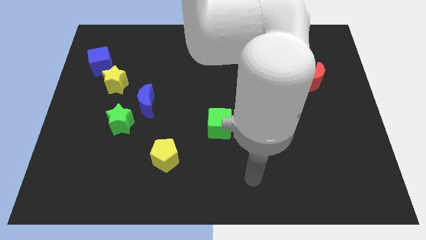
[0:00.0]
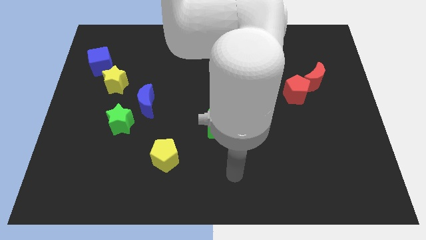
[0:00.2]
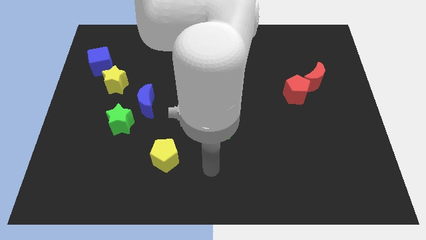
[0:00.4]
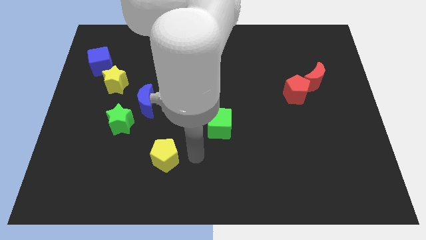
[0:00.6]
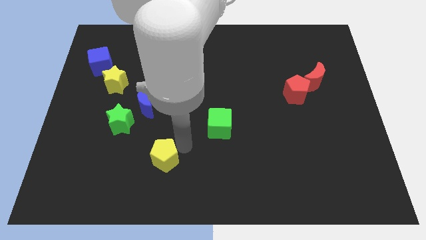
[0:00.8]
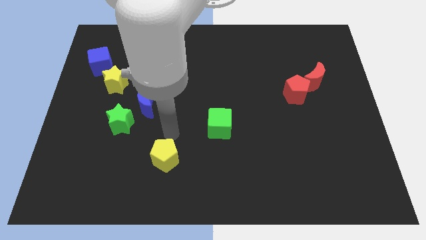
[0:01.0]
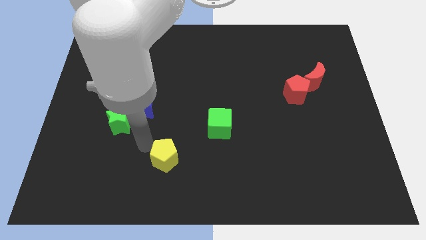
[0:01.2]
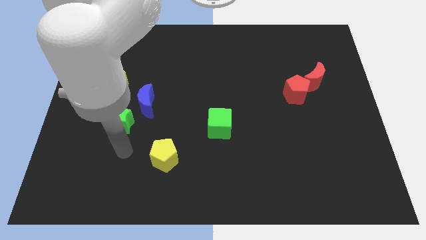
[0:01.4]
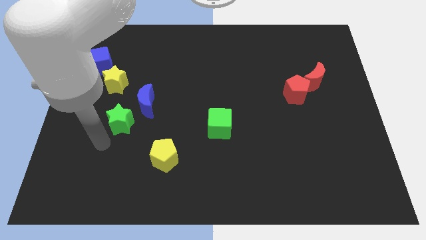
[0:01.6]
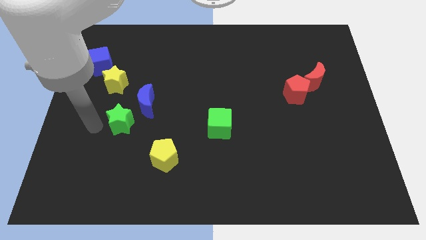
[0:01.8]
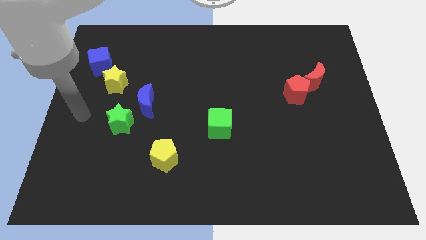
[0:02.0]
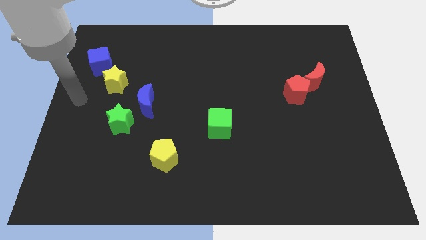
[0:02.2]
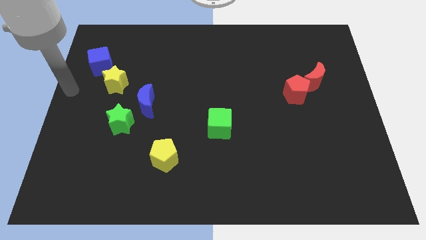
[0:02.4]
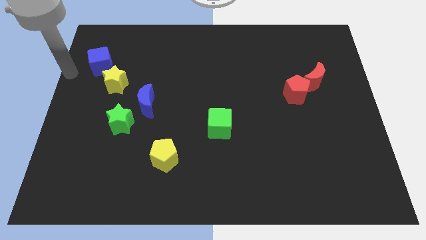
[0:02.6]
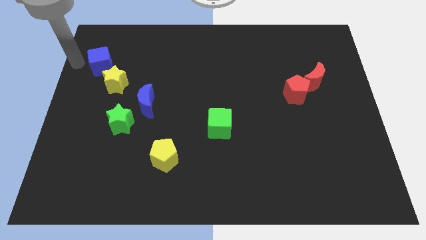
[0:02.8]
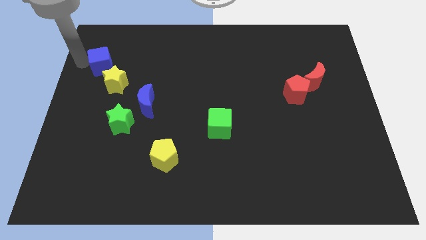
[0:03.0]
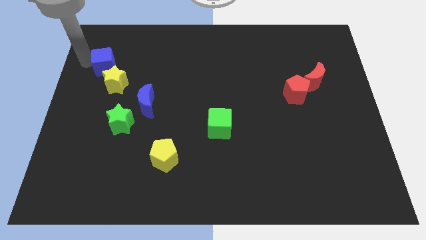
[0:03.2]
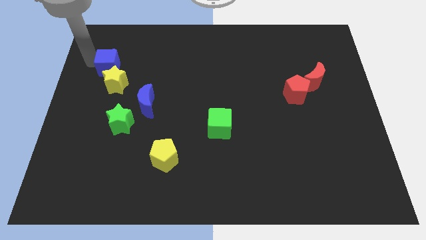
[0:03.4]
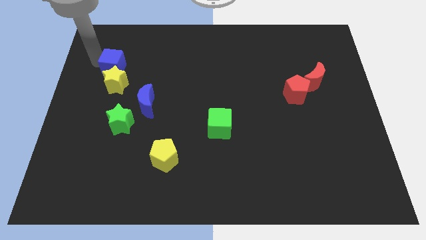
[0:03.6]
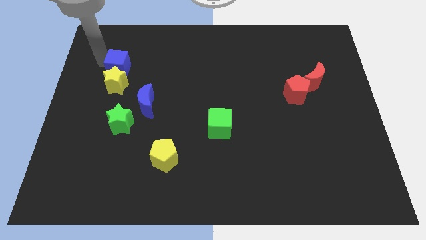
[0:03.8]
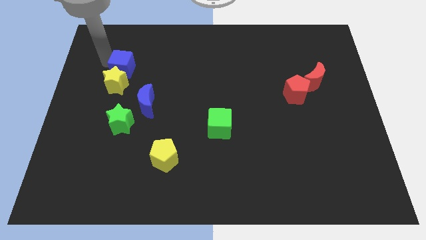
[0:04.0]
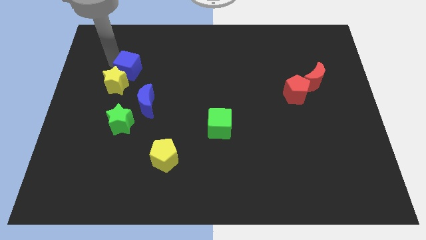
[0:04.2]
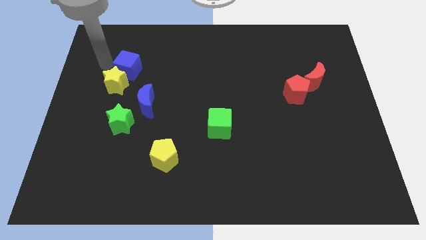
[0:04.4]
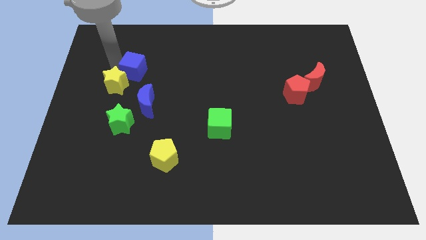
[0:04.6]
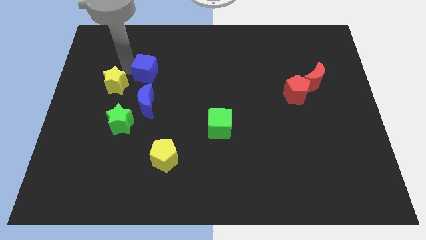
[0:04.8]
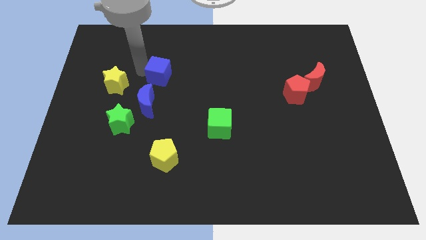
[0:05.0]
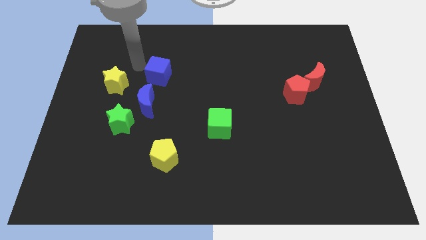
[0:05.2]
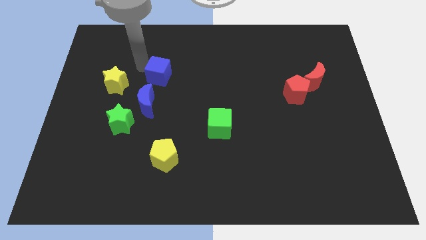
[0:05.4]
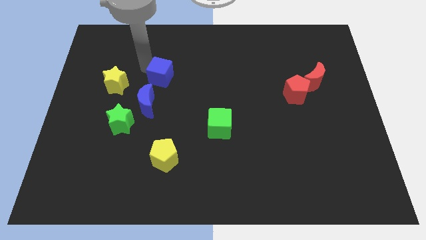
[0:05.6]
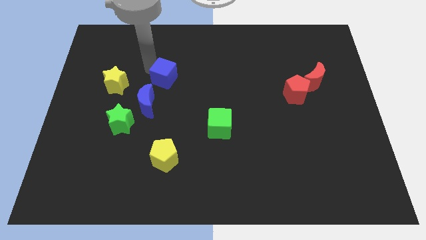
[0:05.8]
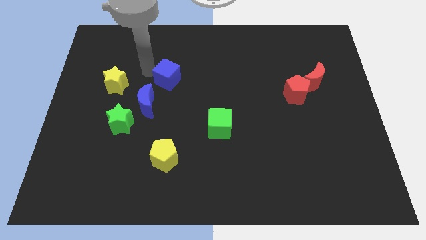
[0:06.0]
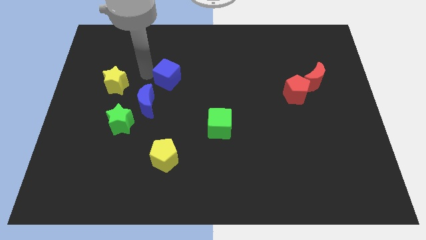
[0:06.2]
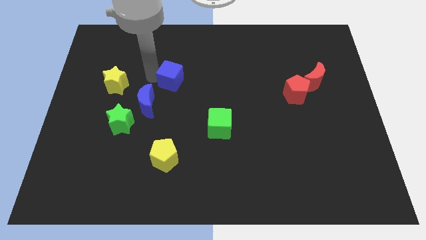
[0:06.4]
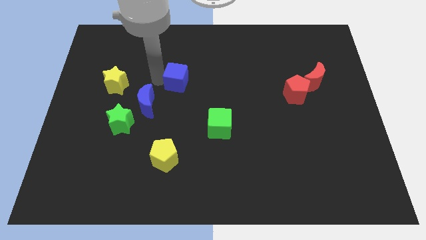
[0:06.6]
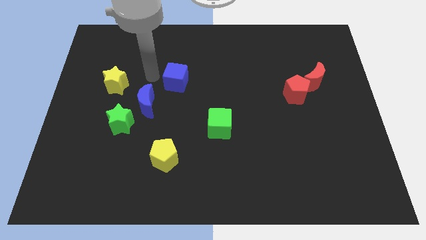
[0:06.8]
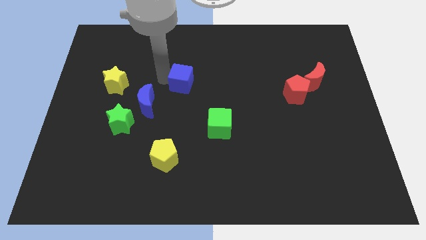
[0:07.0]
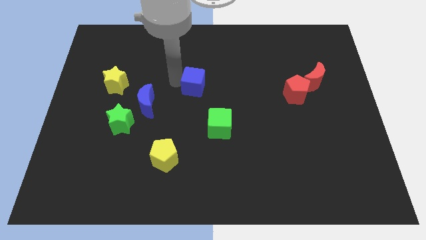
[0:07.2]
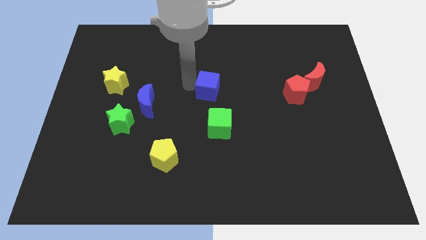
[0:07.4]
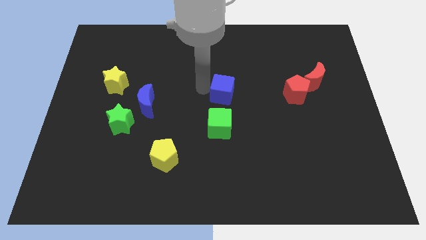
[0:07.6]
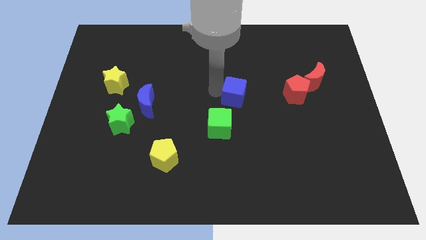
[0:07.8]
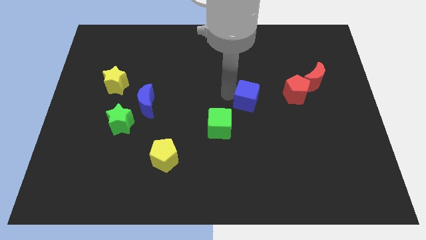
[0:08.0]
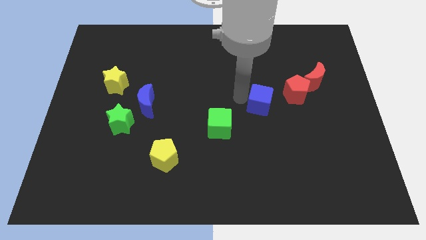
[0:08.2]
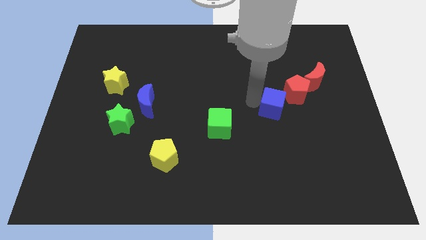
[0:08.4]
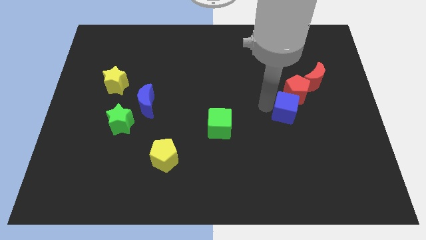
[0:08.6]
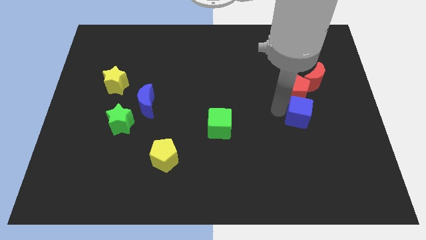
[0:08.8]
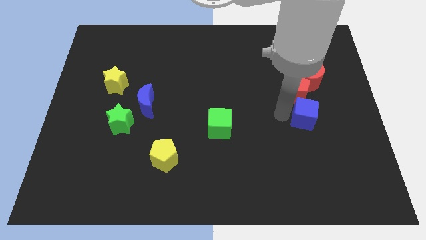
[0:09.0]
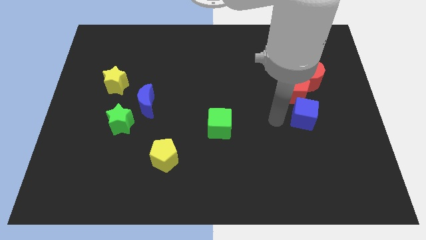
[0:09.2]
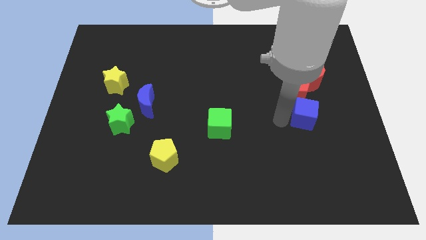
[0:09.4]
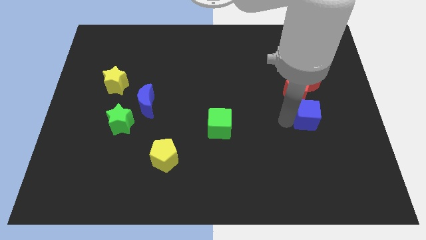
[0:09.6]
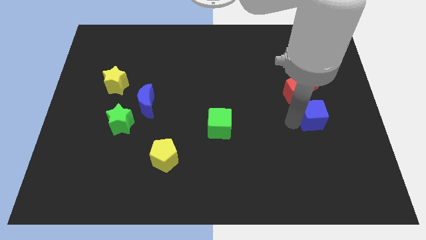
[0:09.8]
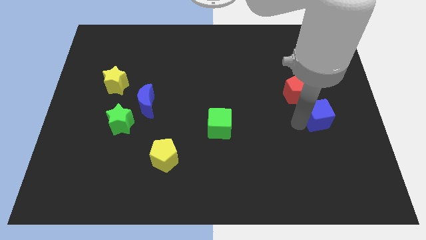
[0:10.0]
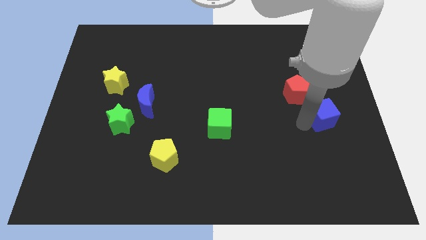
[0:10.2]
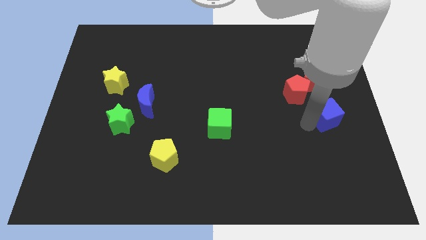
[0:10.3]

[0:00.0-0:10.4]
move the blue cube to the right side of the board
